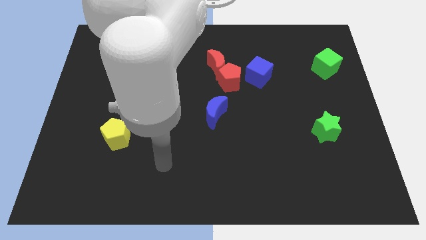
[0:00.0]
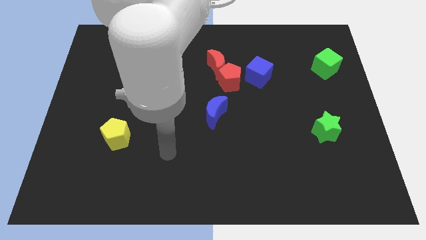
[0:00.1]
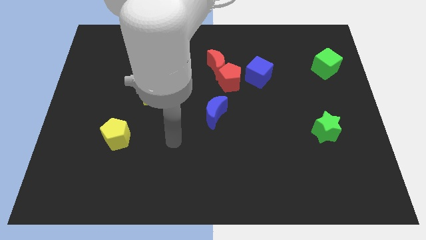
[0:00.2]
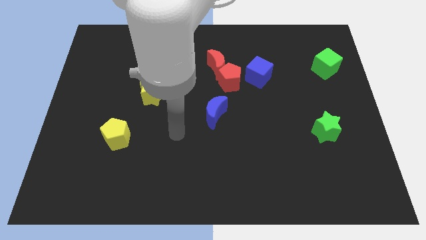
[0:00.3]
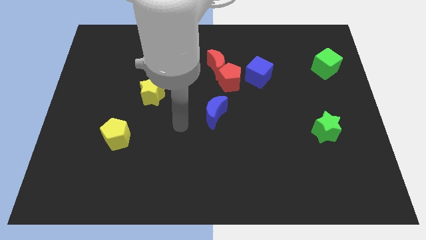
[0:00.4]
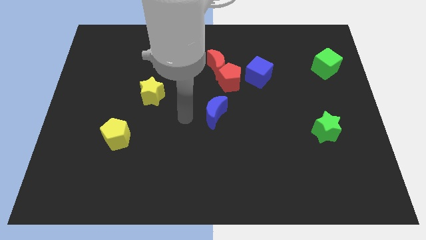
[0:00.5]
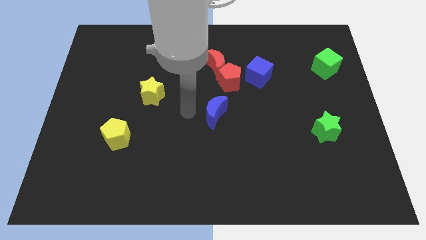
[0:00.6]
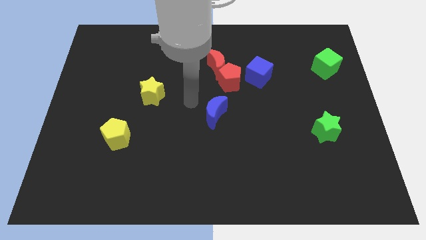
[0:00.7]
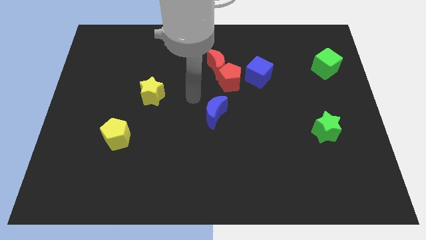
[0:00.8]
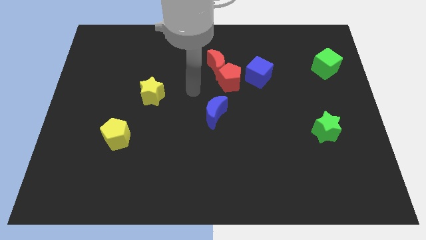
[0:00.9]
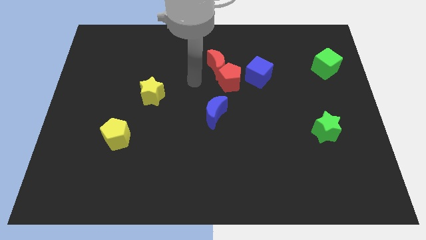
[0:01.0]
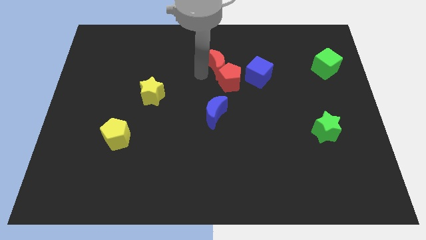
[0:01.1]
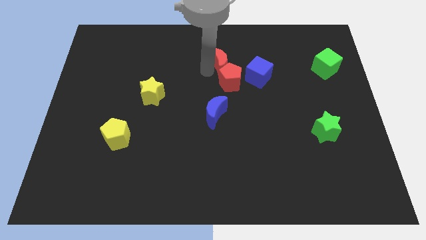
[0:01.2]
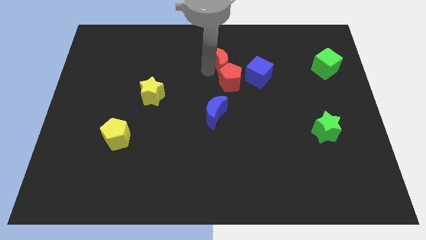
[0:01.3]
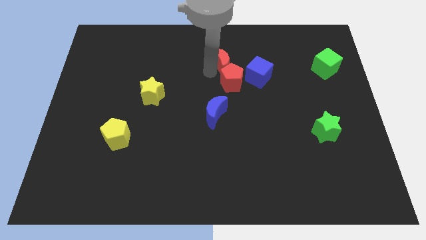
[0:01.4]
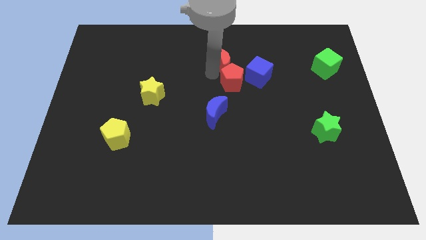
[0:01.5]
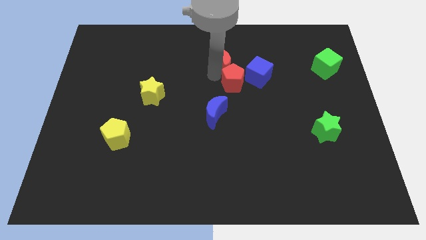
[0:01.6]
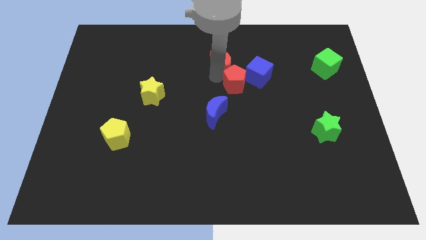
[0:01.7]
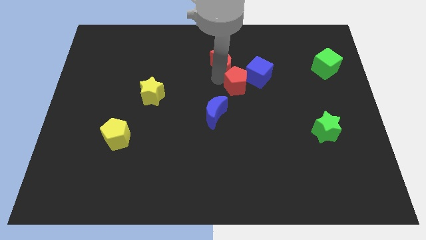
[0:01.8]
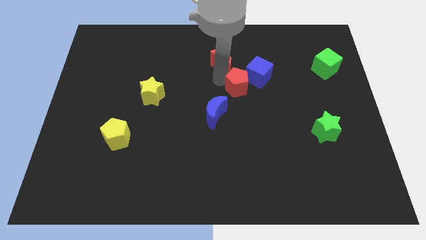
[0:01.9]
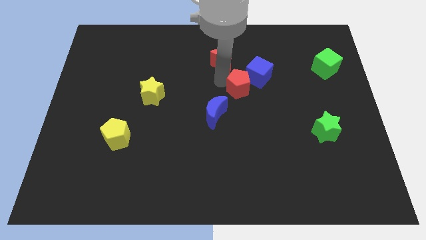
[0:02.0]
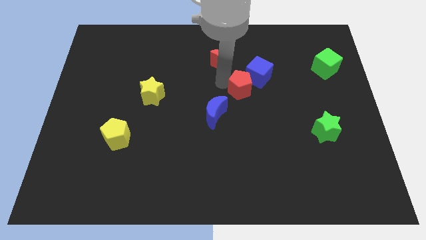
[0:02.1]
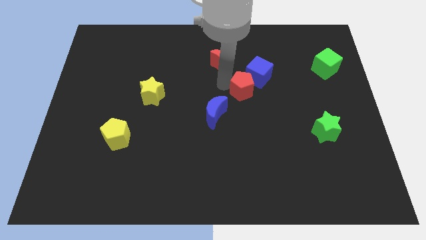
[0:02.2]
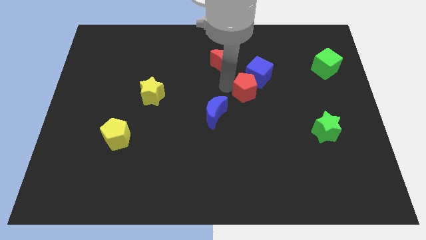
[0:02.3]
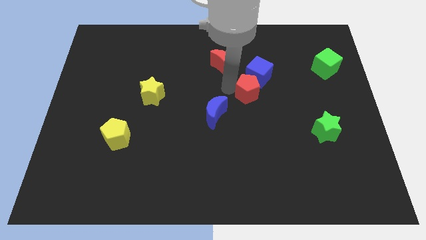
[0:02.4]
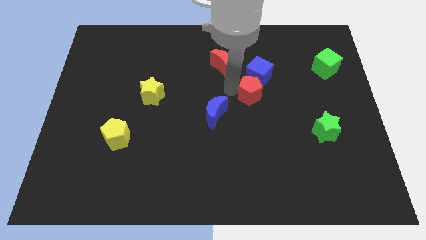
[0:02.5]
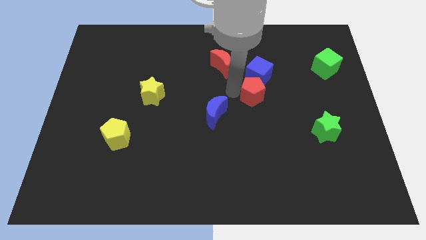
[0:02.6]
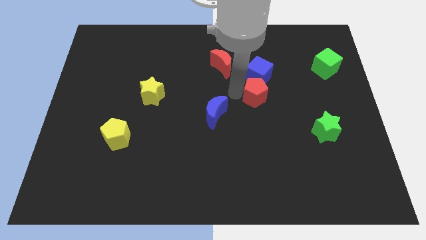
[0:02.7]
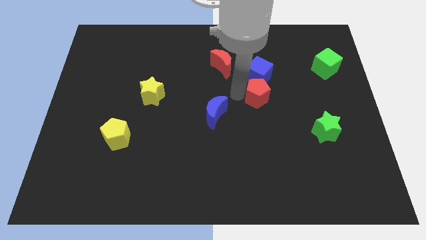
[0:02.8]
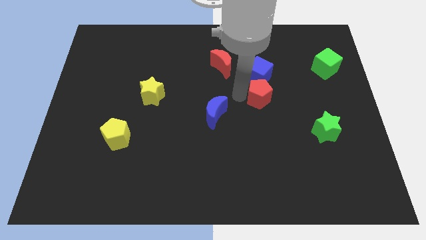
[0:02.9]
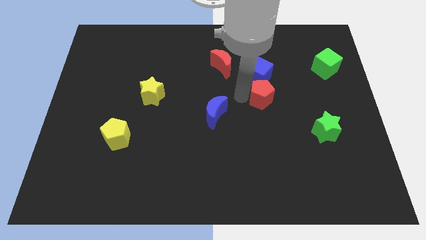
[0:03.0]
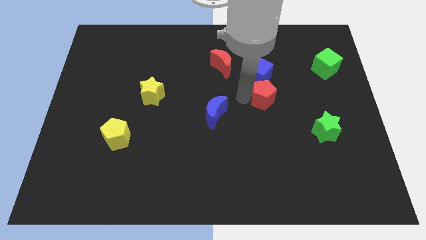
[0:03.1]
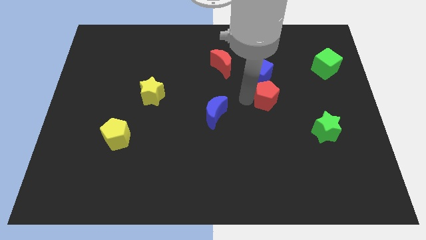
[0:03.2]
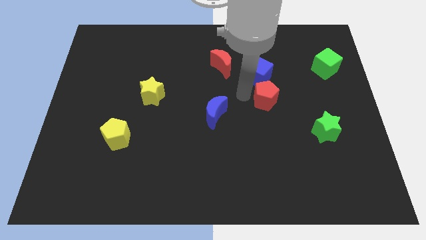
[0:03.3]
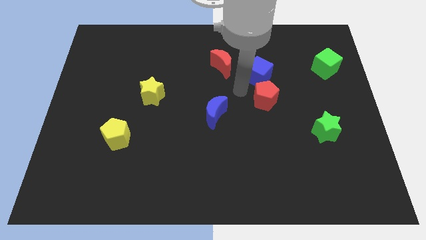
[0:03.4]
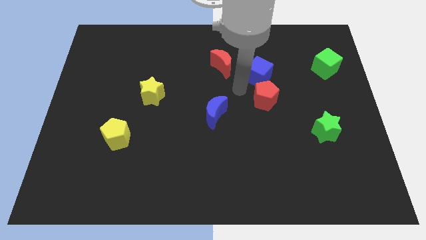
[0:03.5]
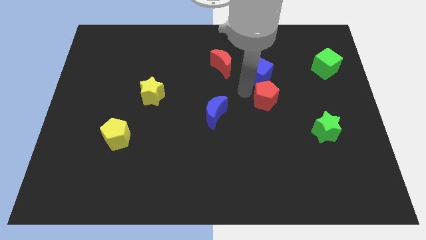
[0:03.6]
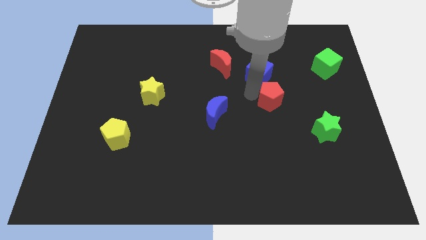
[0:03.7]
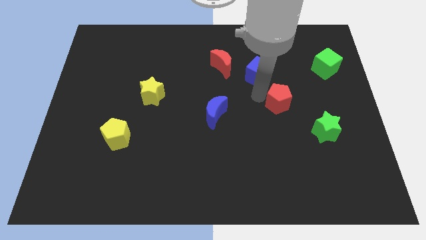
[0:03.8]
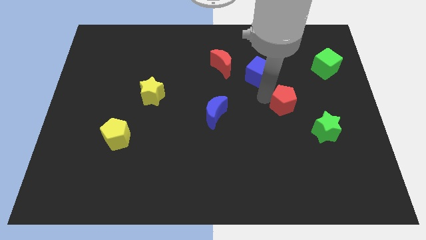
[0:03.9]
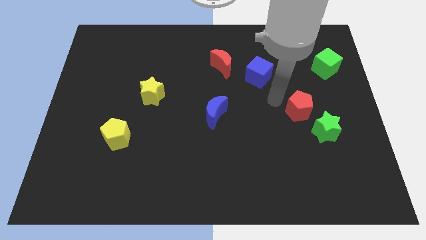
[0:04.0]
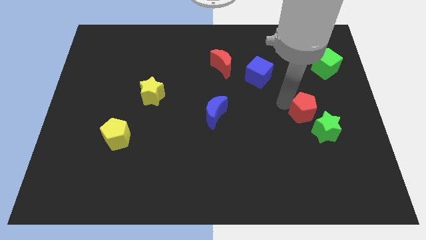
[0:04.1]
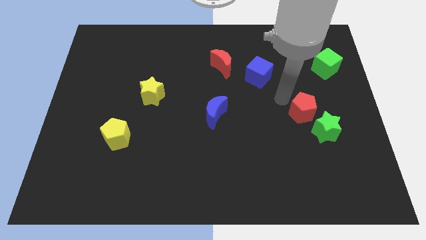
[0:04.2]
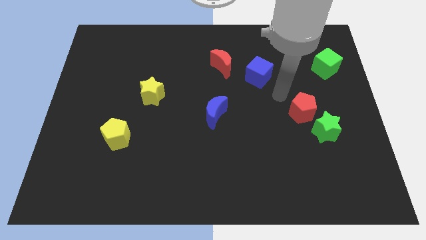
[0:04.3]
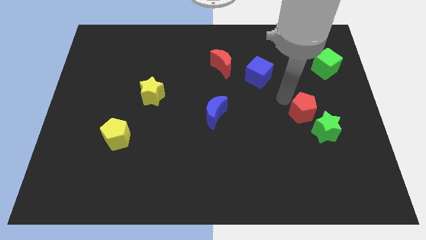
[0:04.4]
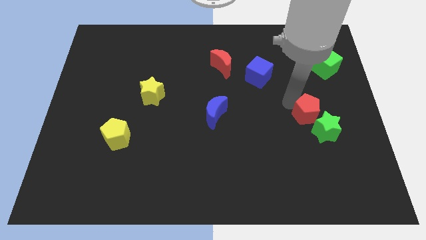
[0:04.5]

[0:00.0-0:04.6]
push the red pentagon next to the green star

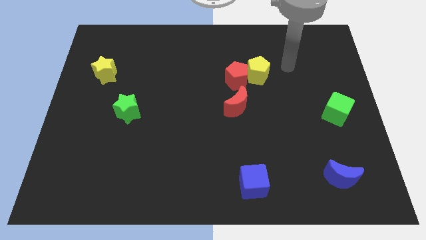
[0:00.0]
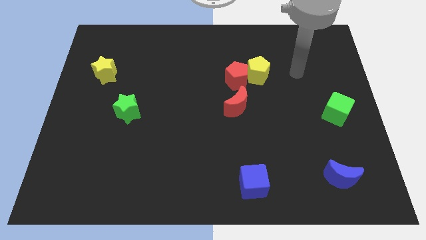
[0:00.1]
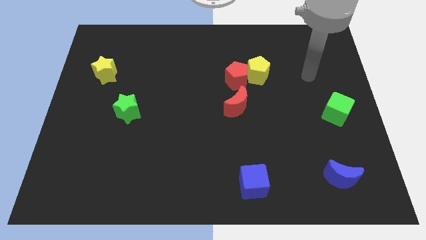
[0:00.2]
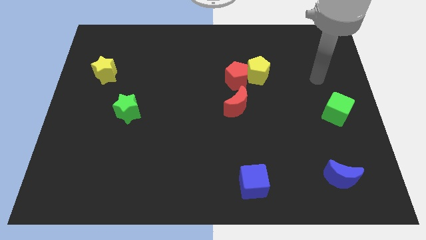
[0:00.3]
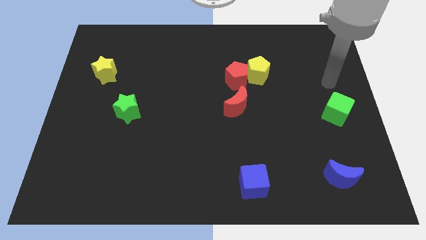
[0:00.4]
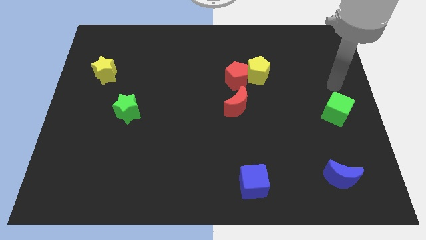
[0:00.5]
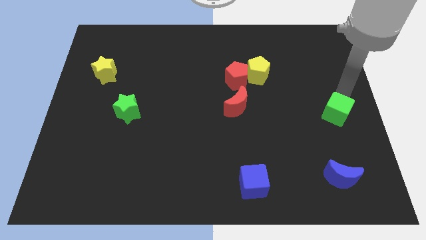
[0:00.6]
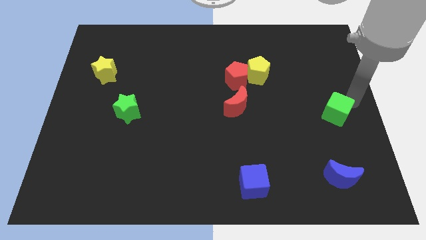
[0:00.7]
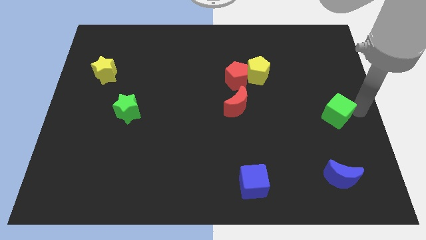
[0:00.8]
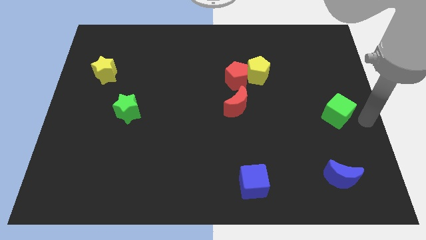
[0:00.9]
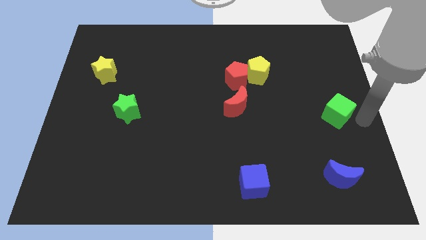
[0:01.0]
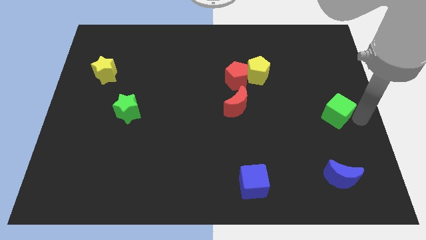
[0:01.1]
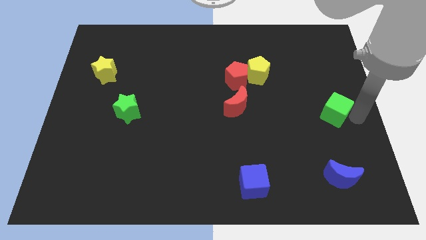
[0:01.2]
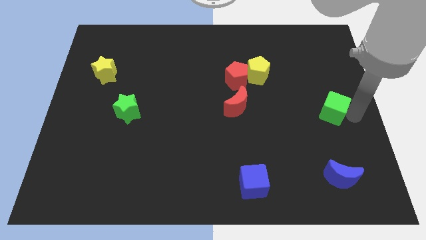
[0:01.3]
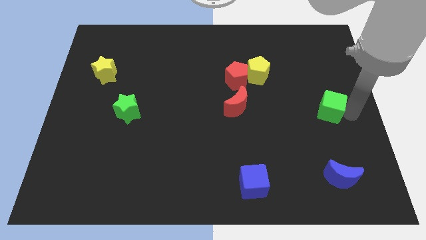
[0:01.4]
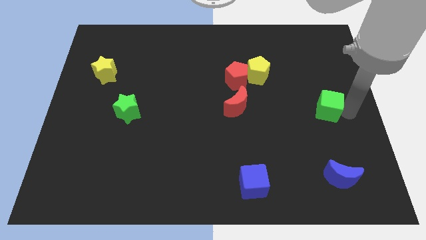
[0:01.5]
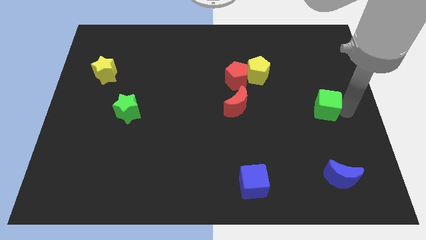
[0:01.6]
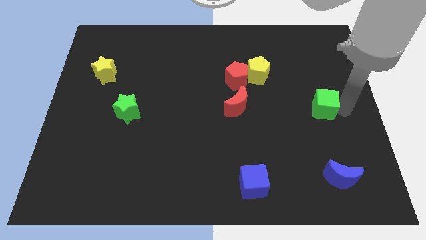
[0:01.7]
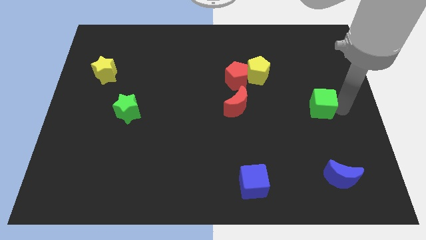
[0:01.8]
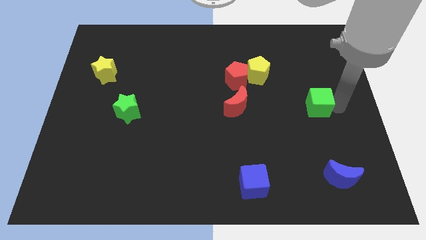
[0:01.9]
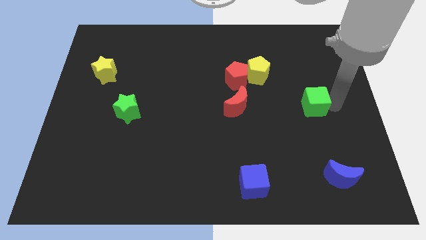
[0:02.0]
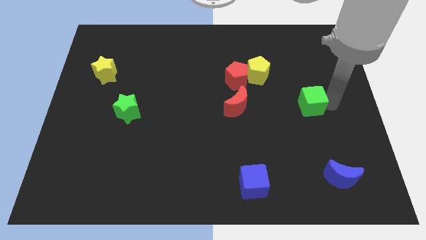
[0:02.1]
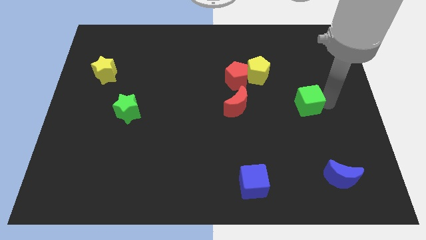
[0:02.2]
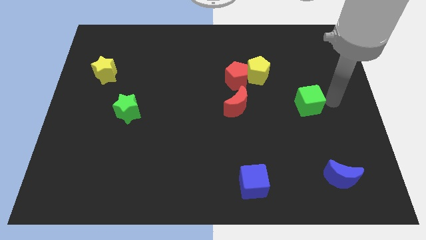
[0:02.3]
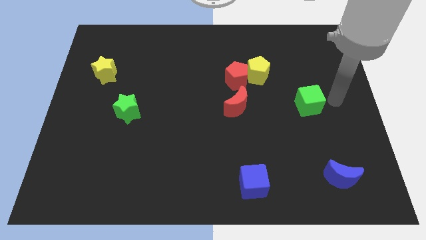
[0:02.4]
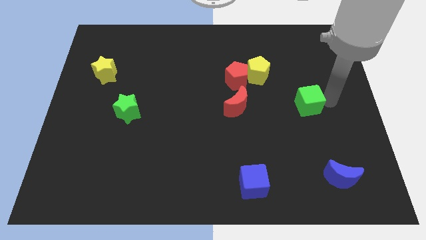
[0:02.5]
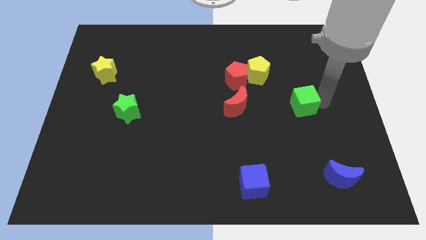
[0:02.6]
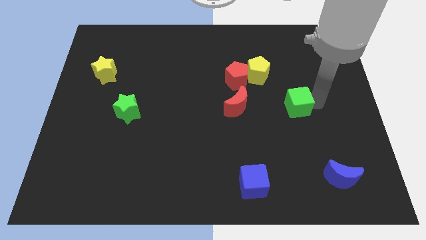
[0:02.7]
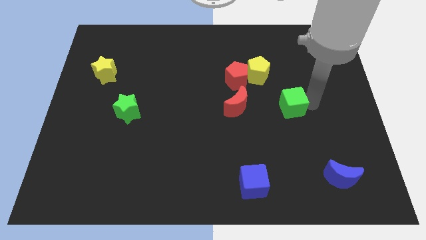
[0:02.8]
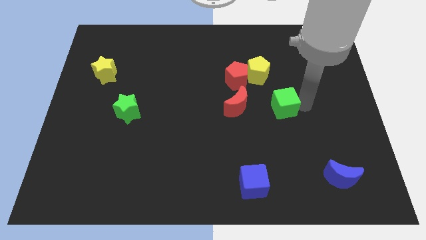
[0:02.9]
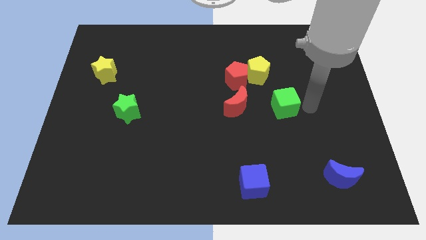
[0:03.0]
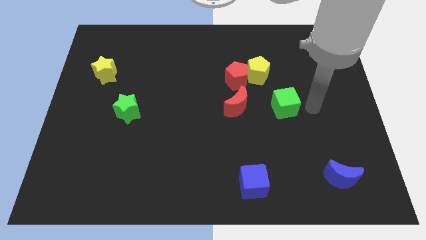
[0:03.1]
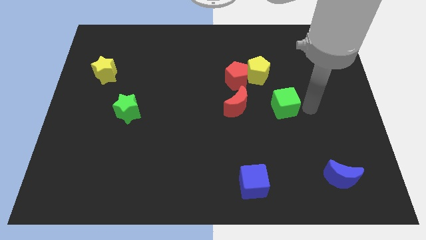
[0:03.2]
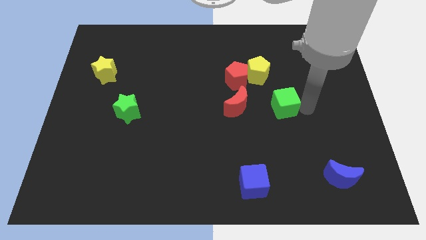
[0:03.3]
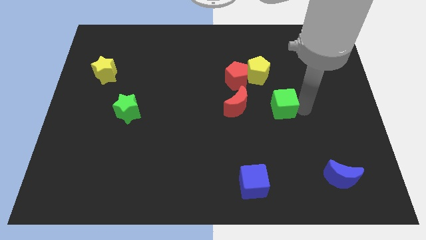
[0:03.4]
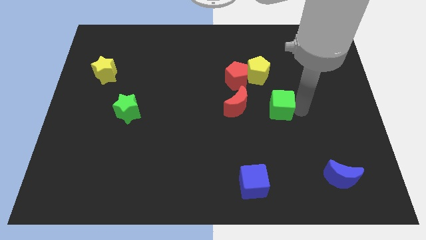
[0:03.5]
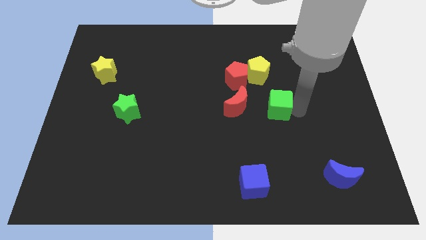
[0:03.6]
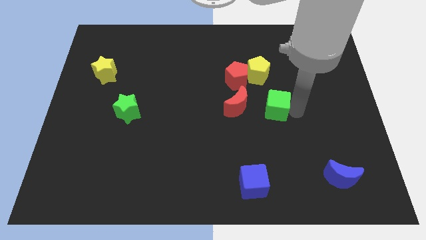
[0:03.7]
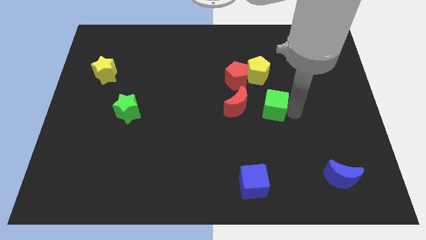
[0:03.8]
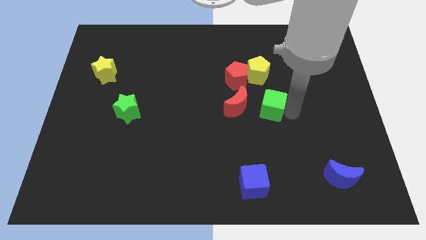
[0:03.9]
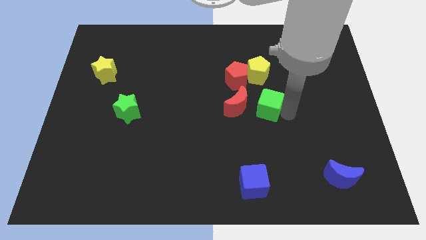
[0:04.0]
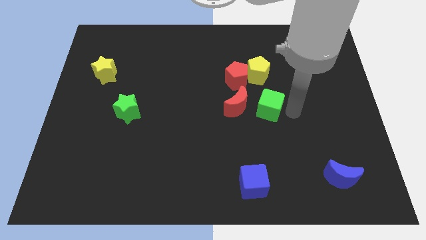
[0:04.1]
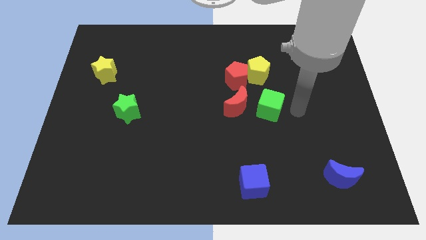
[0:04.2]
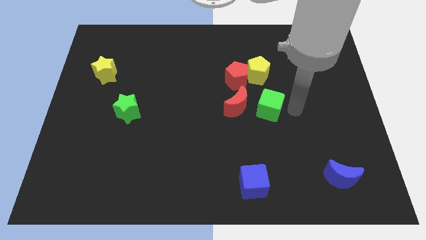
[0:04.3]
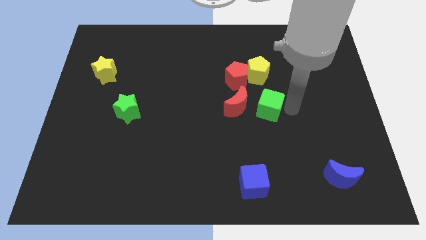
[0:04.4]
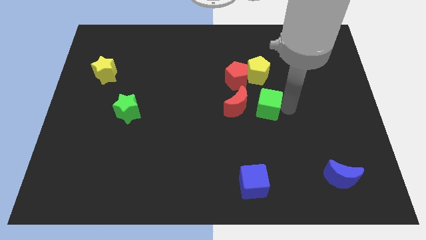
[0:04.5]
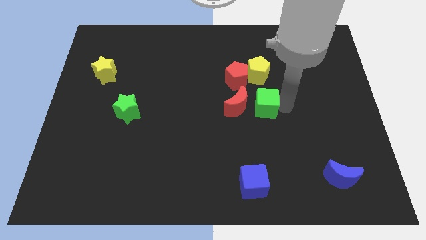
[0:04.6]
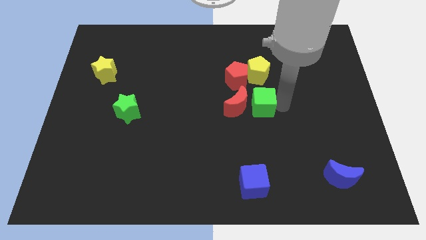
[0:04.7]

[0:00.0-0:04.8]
slide the green cube towards the red moon
